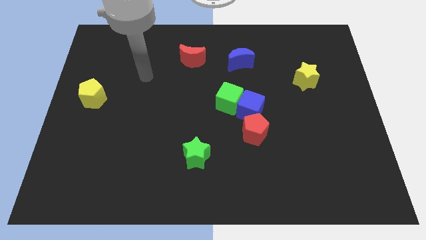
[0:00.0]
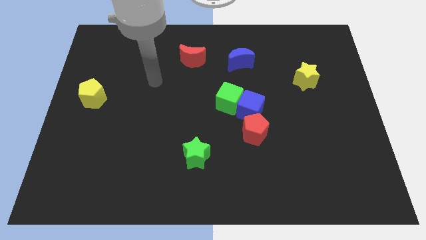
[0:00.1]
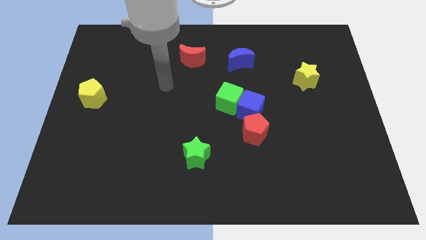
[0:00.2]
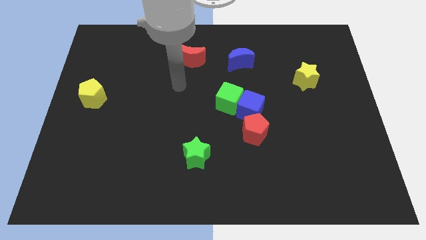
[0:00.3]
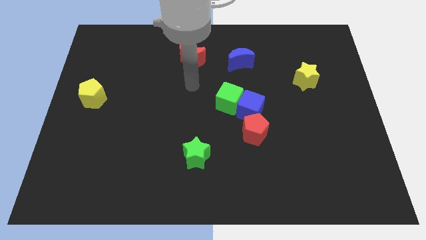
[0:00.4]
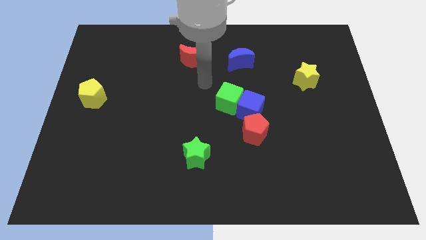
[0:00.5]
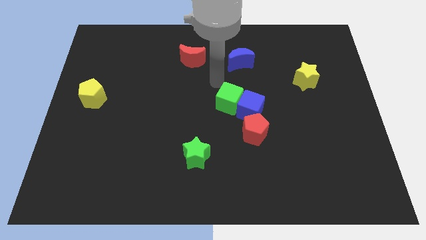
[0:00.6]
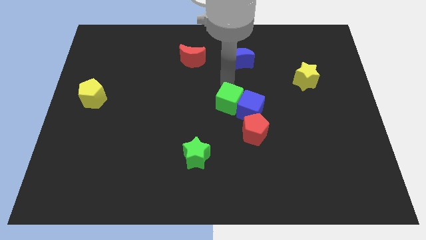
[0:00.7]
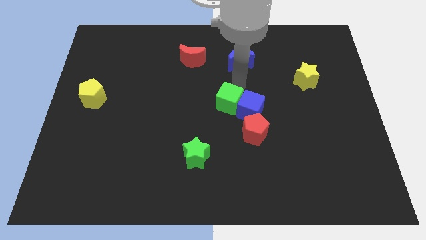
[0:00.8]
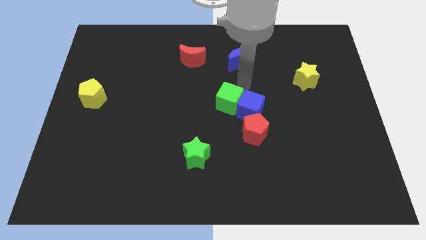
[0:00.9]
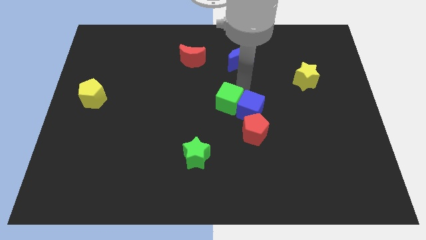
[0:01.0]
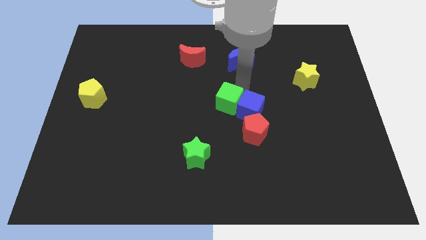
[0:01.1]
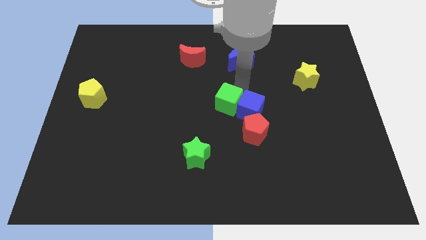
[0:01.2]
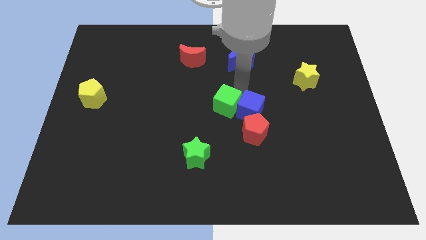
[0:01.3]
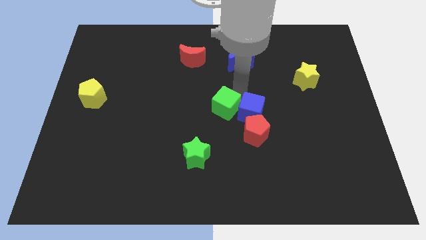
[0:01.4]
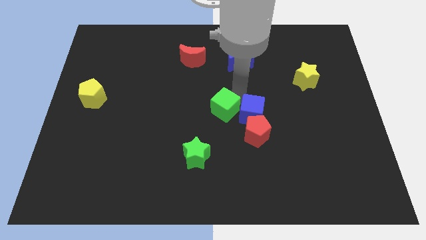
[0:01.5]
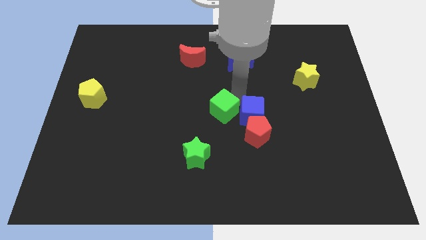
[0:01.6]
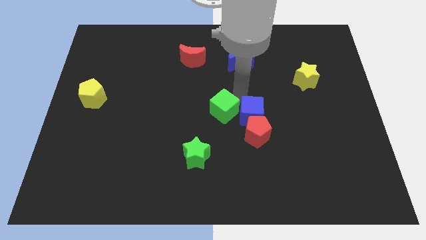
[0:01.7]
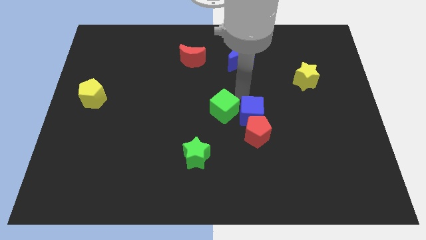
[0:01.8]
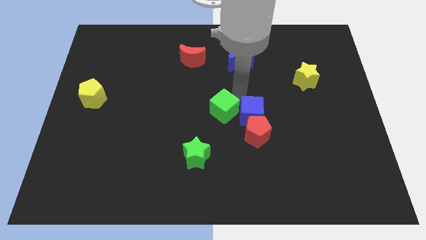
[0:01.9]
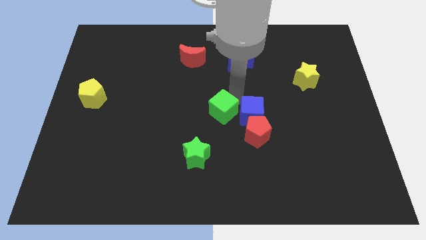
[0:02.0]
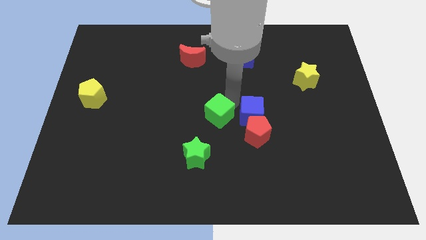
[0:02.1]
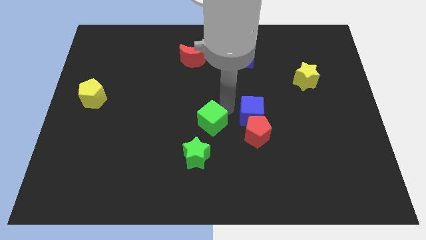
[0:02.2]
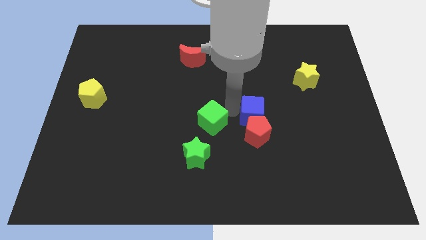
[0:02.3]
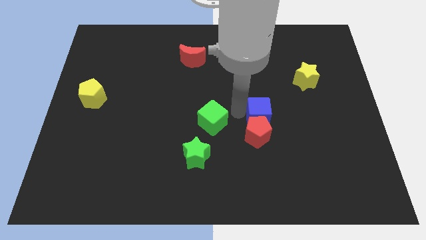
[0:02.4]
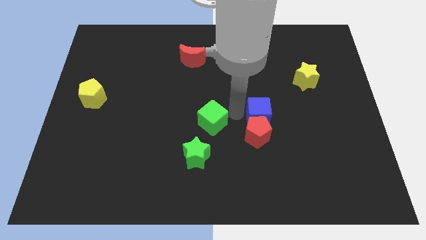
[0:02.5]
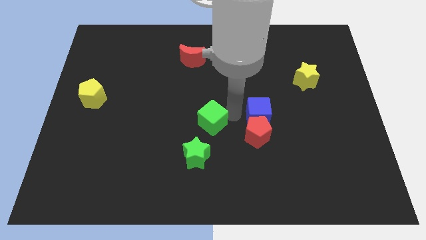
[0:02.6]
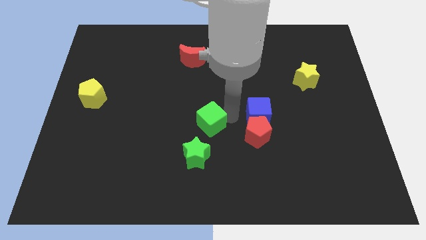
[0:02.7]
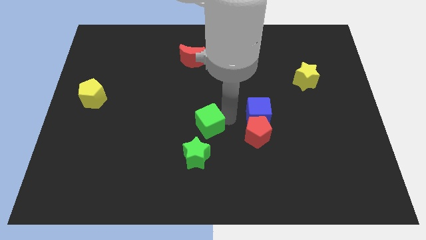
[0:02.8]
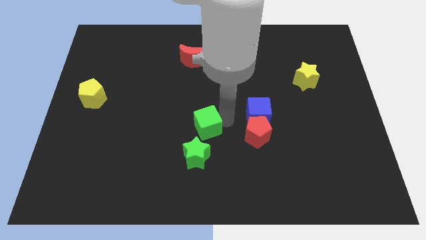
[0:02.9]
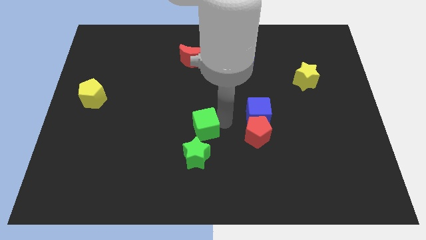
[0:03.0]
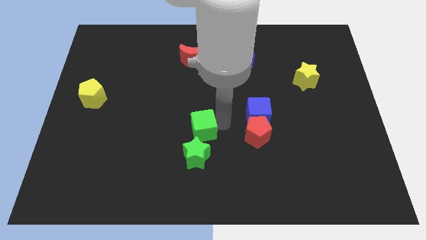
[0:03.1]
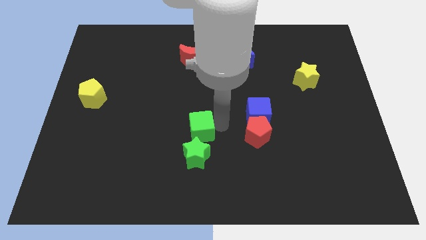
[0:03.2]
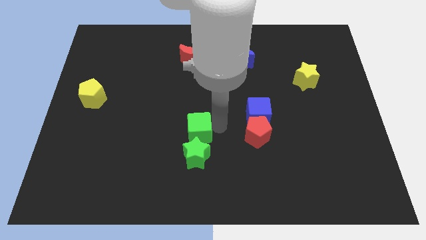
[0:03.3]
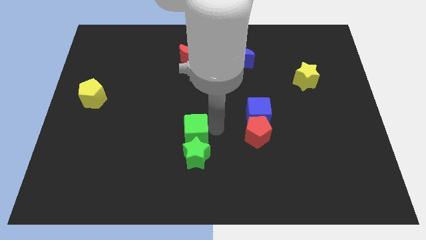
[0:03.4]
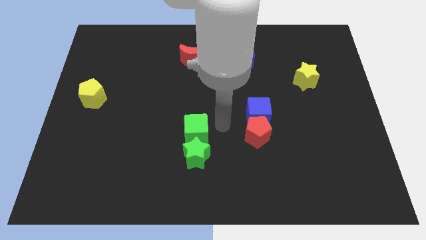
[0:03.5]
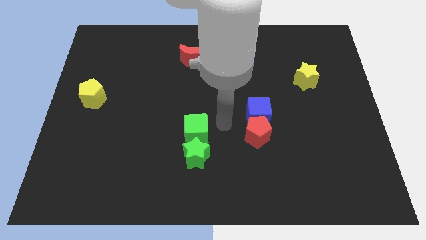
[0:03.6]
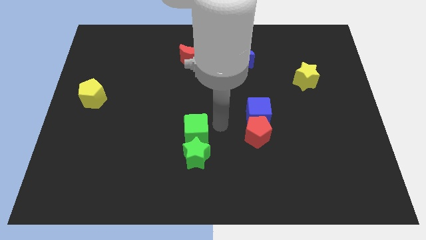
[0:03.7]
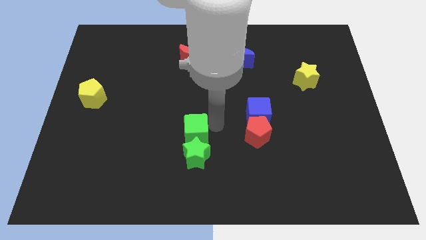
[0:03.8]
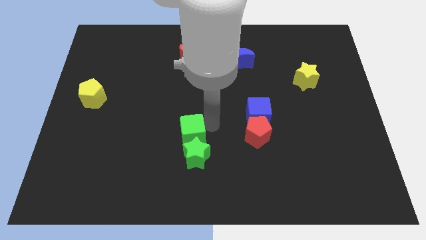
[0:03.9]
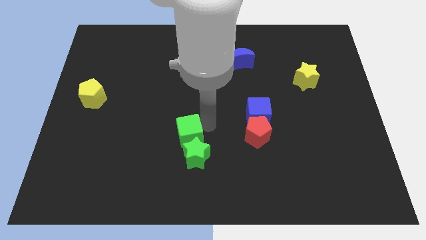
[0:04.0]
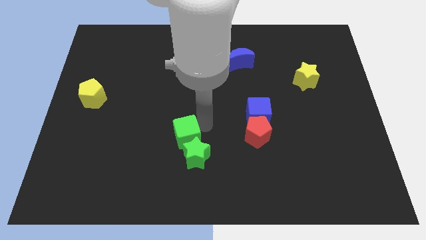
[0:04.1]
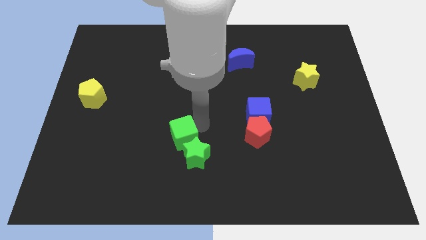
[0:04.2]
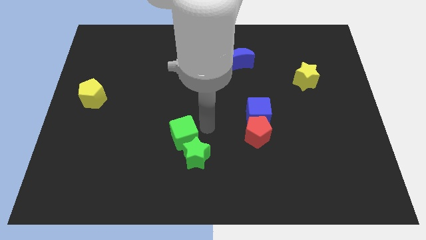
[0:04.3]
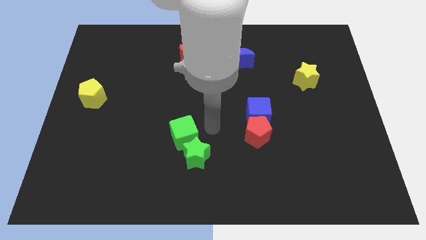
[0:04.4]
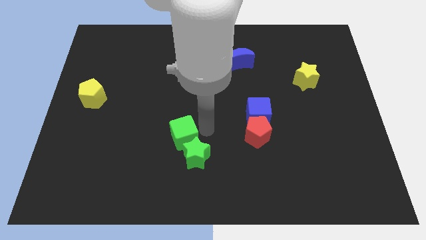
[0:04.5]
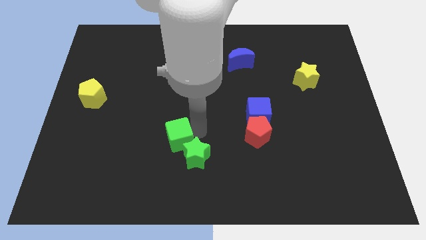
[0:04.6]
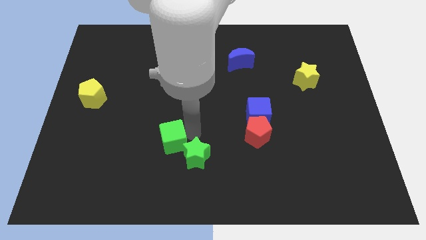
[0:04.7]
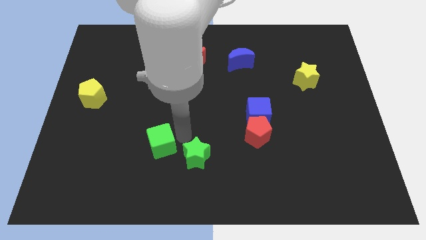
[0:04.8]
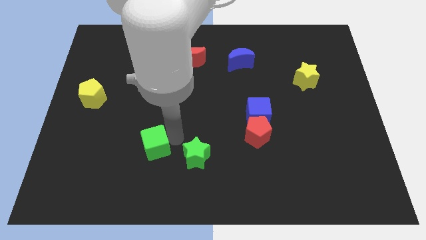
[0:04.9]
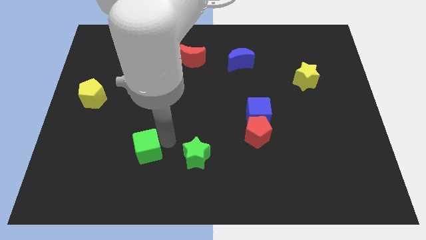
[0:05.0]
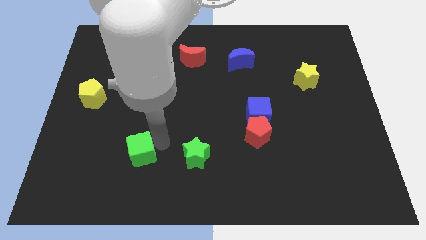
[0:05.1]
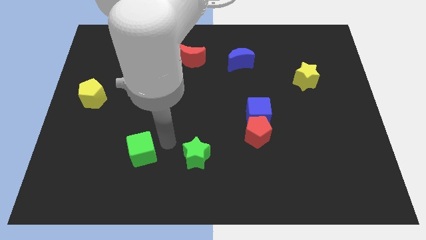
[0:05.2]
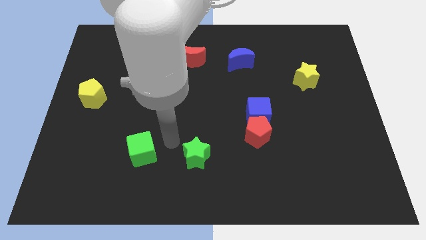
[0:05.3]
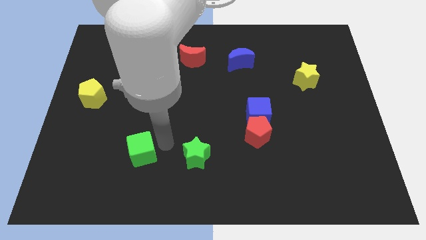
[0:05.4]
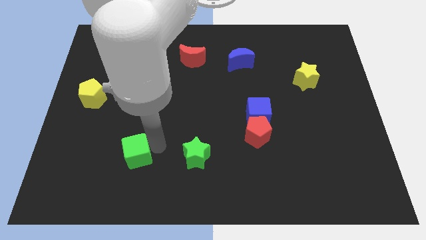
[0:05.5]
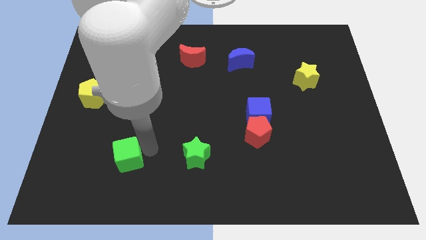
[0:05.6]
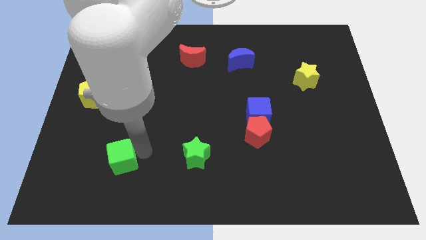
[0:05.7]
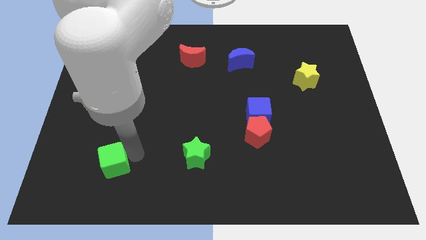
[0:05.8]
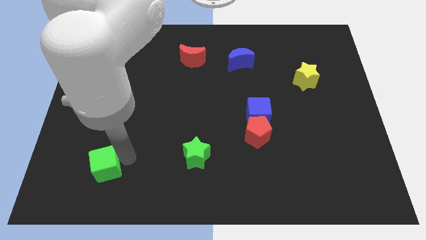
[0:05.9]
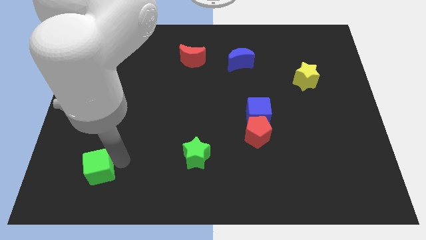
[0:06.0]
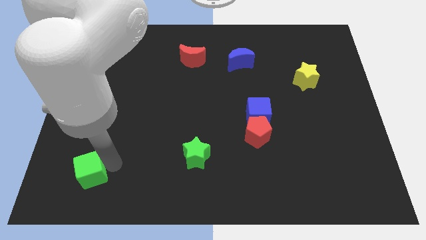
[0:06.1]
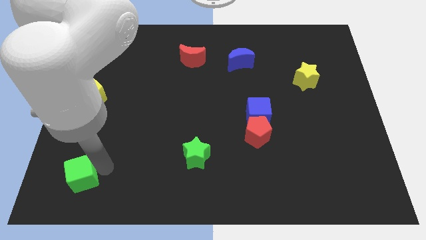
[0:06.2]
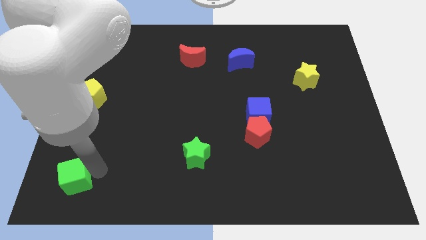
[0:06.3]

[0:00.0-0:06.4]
move the green cube to the bottom left
